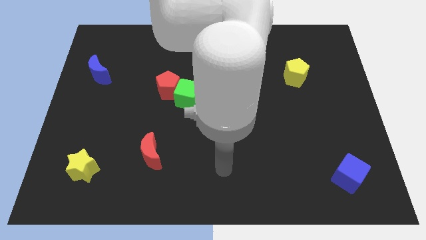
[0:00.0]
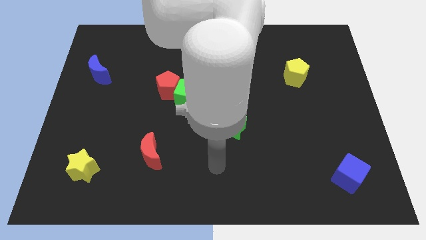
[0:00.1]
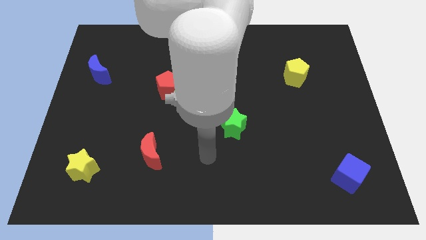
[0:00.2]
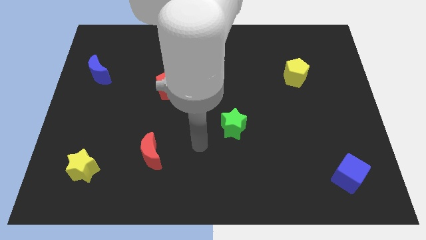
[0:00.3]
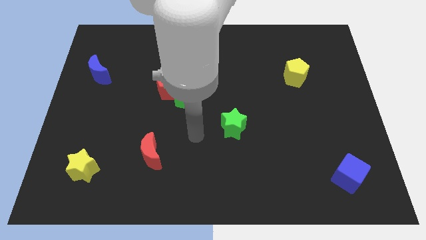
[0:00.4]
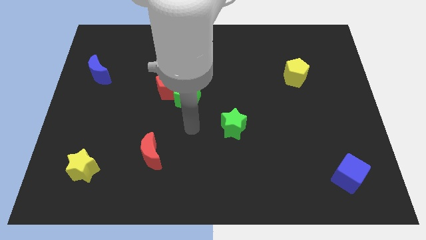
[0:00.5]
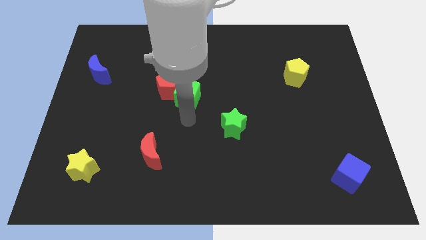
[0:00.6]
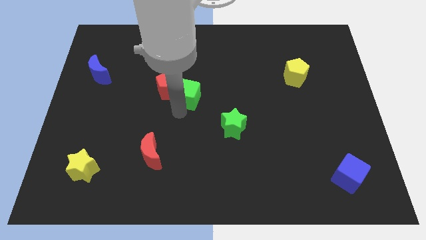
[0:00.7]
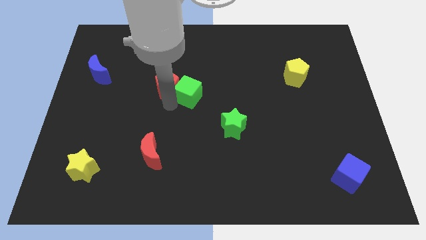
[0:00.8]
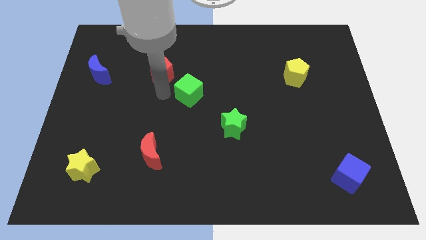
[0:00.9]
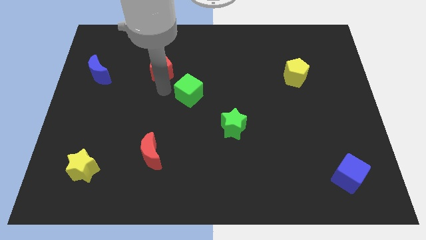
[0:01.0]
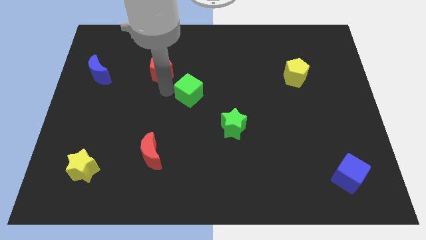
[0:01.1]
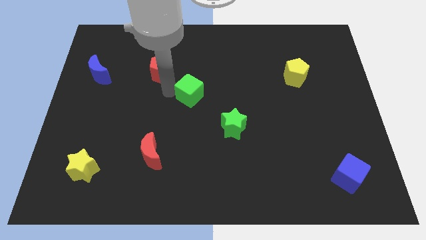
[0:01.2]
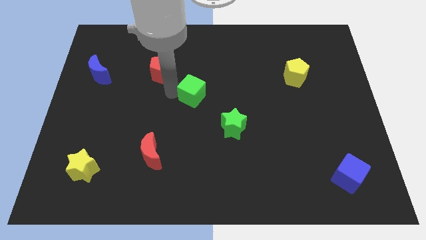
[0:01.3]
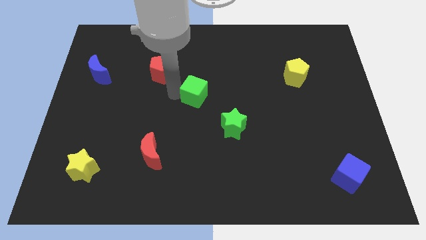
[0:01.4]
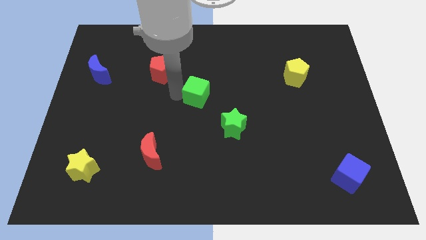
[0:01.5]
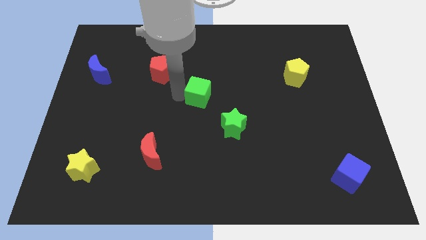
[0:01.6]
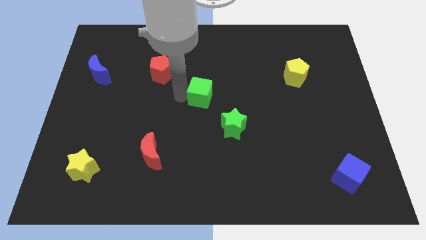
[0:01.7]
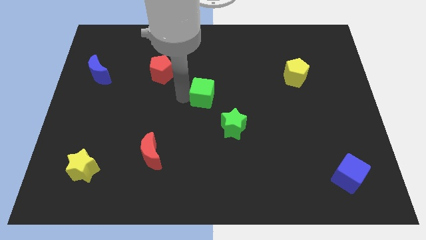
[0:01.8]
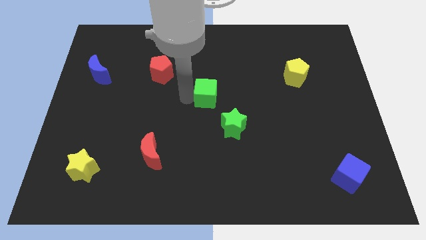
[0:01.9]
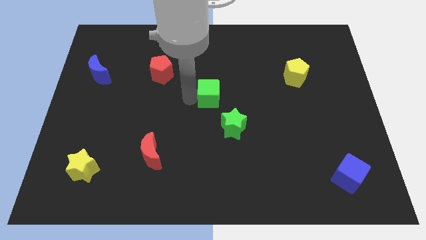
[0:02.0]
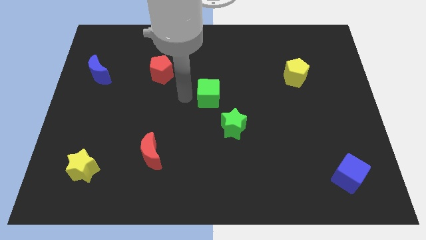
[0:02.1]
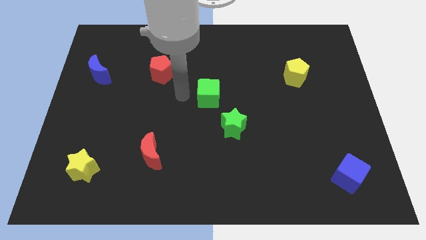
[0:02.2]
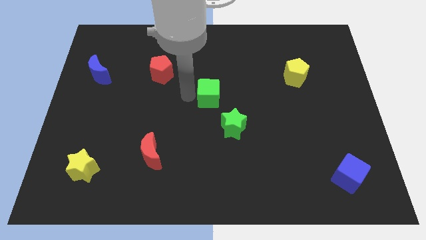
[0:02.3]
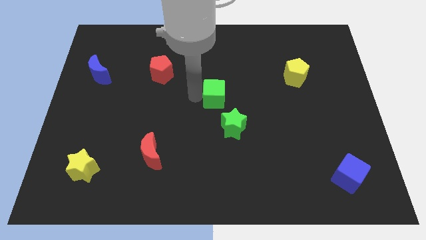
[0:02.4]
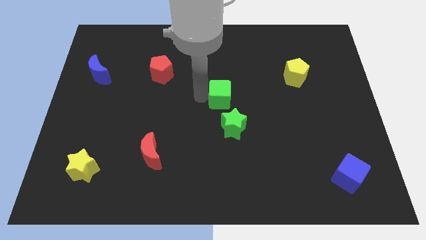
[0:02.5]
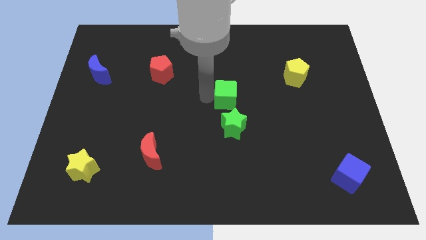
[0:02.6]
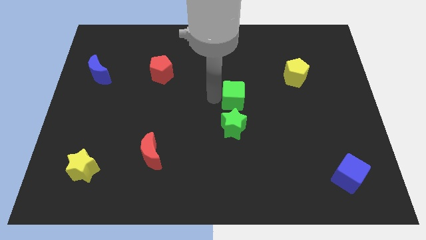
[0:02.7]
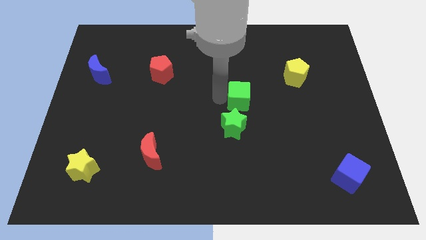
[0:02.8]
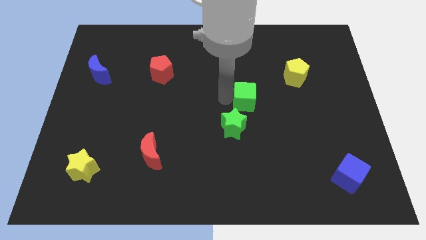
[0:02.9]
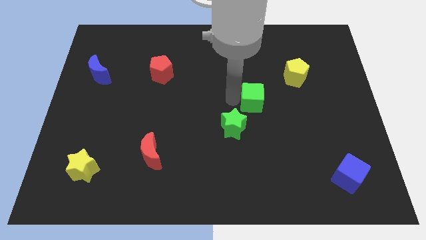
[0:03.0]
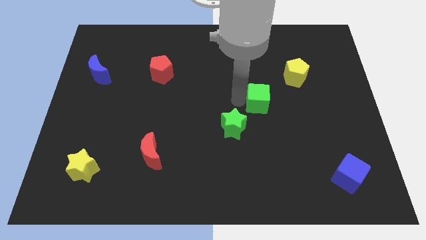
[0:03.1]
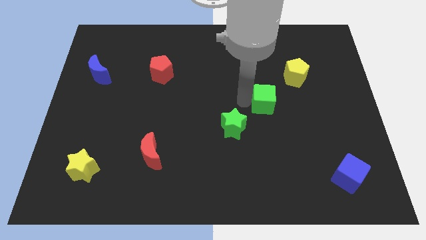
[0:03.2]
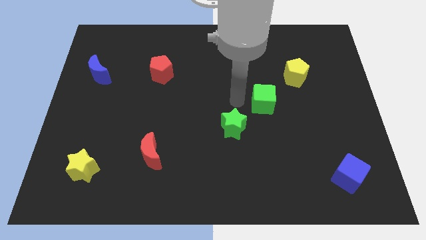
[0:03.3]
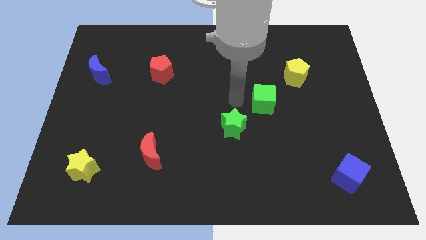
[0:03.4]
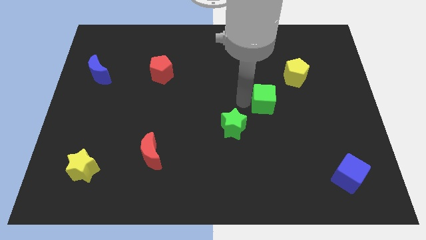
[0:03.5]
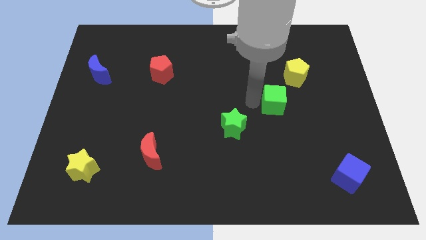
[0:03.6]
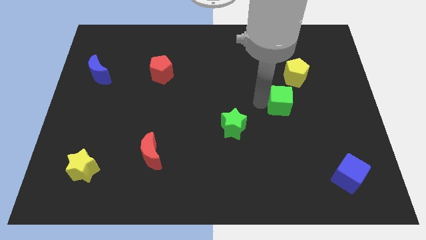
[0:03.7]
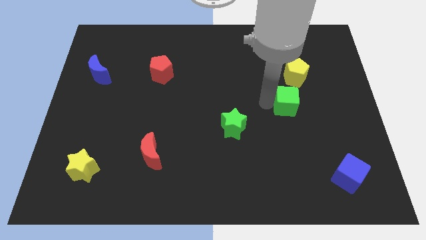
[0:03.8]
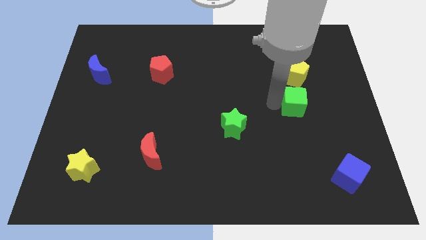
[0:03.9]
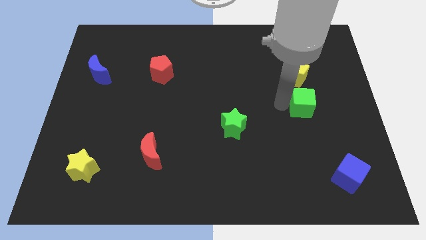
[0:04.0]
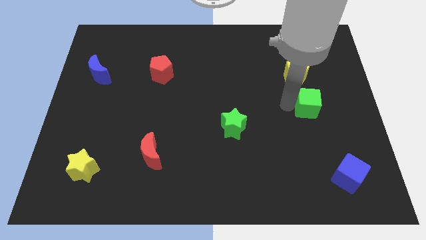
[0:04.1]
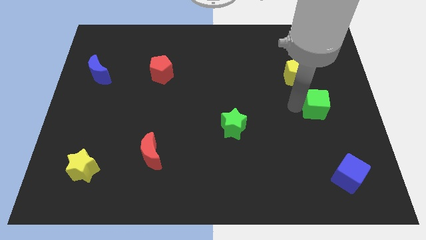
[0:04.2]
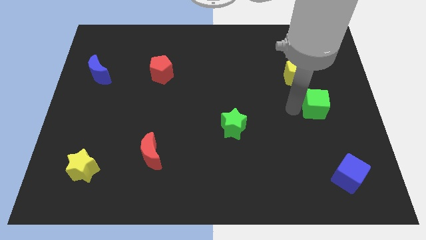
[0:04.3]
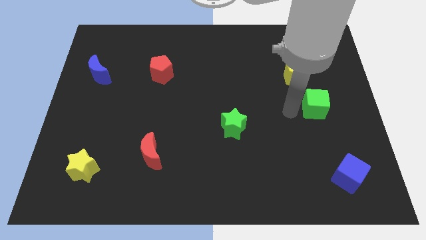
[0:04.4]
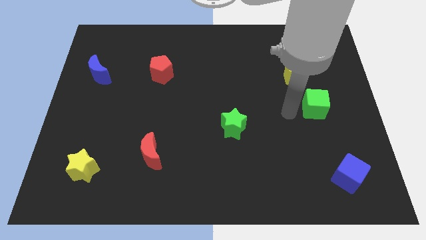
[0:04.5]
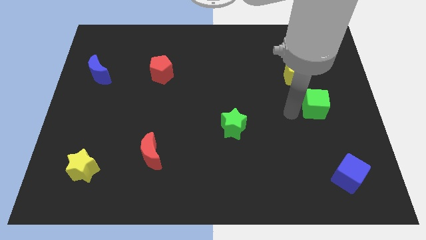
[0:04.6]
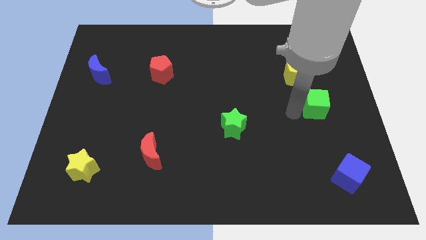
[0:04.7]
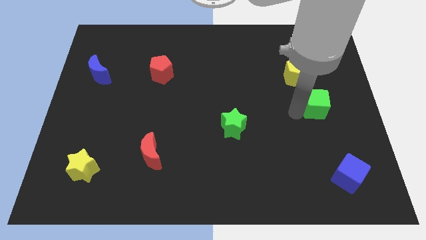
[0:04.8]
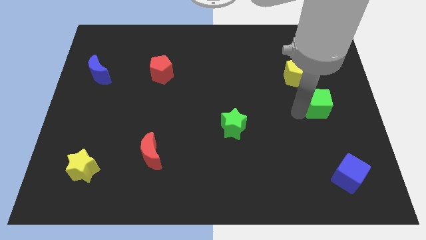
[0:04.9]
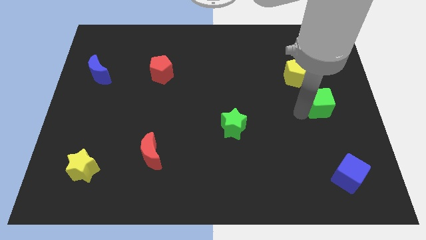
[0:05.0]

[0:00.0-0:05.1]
move the green cube to the right side of the board

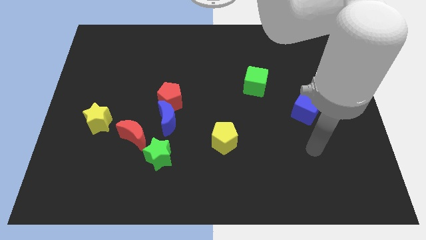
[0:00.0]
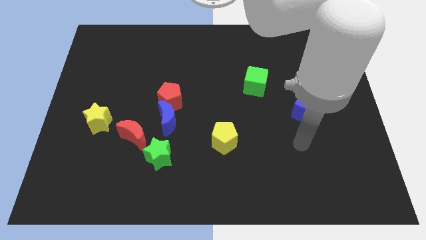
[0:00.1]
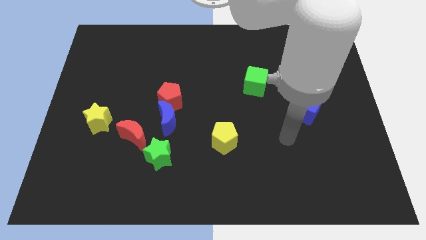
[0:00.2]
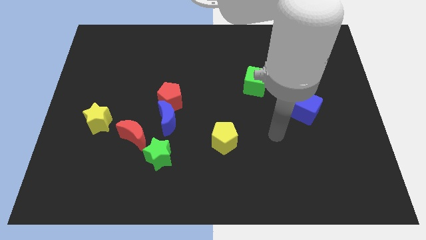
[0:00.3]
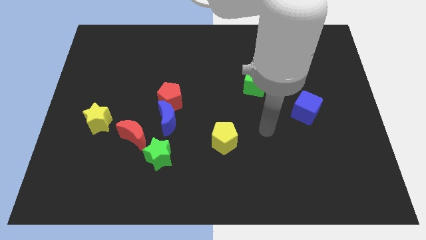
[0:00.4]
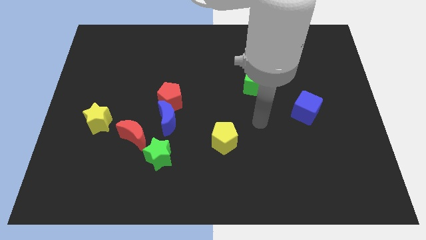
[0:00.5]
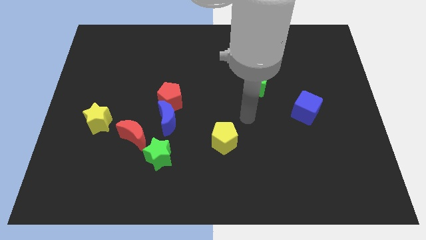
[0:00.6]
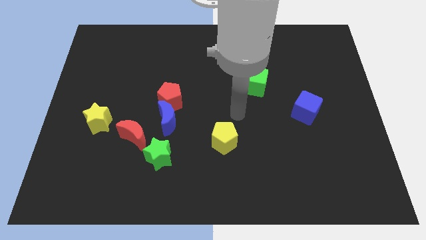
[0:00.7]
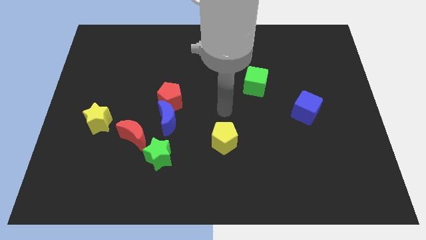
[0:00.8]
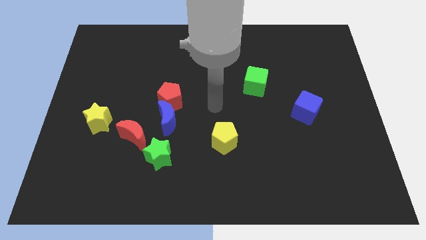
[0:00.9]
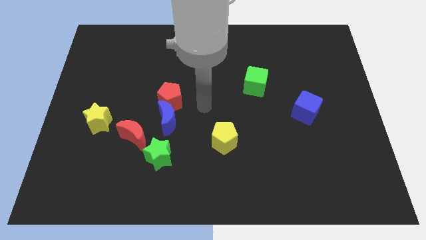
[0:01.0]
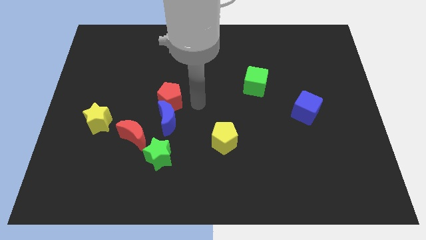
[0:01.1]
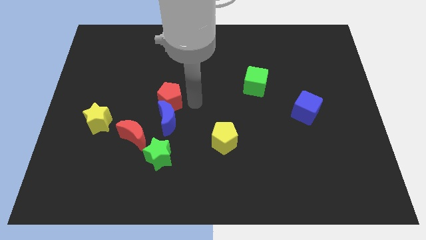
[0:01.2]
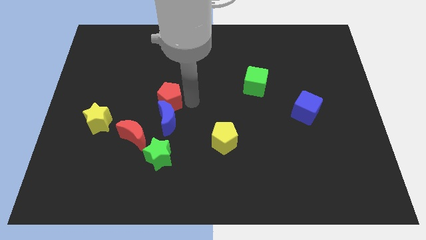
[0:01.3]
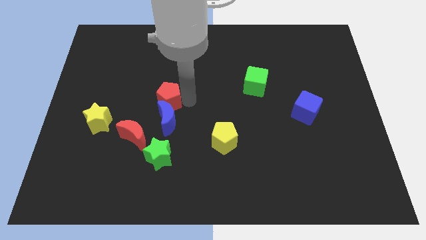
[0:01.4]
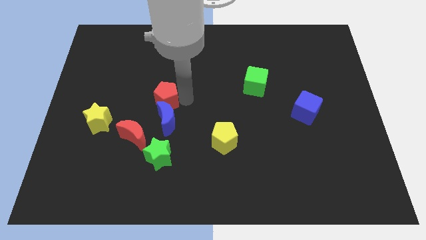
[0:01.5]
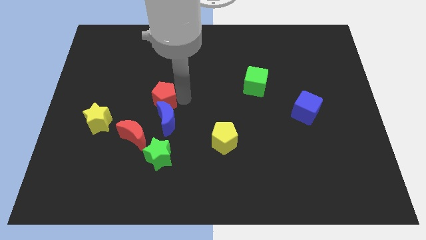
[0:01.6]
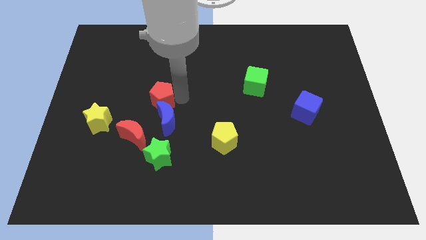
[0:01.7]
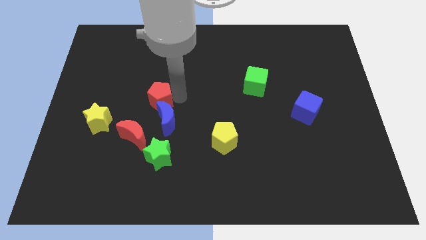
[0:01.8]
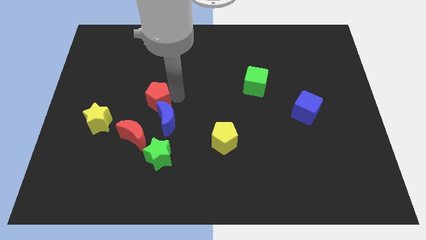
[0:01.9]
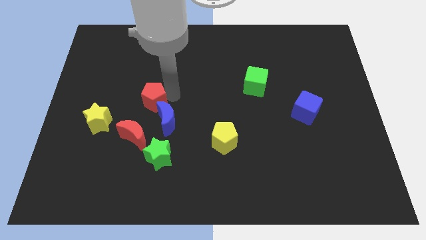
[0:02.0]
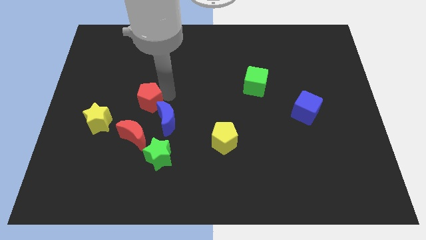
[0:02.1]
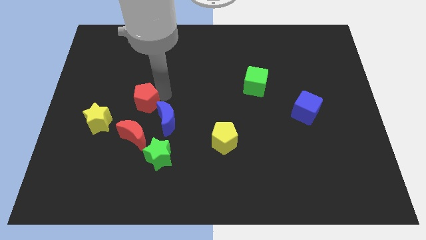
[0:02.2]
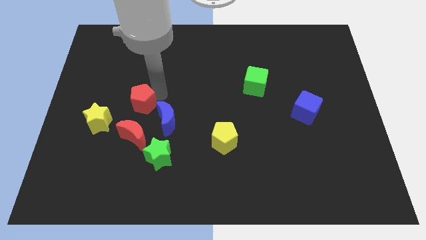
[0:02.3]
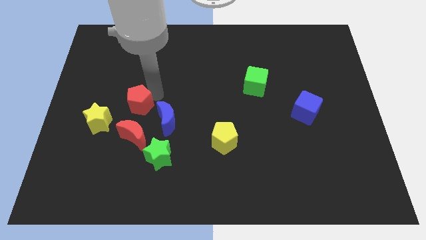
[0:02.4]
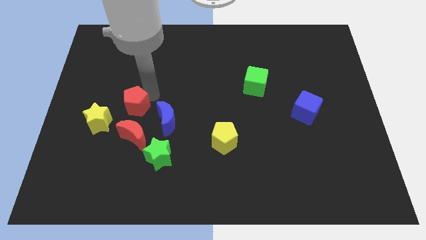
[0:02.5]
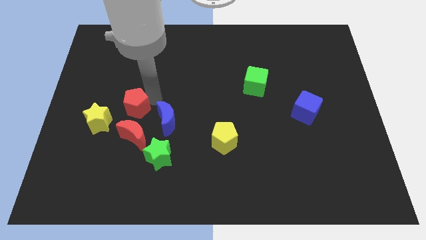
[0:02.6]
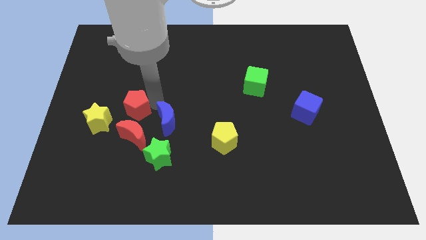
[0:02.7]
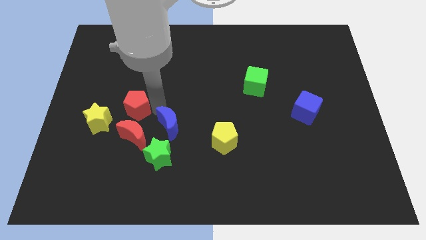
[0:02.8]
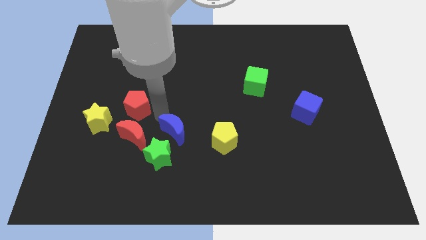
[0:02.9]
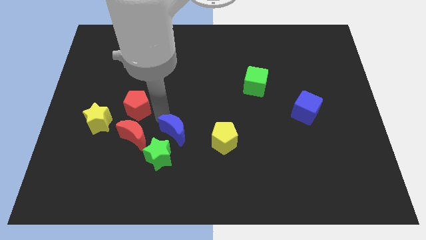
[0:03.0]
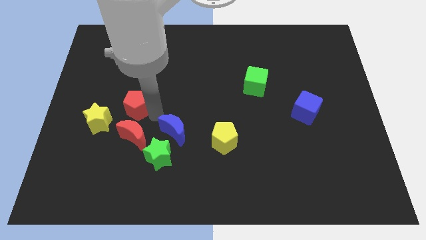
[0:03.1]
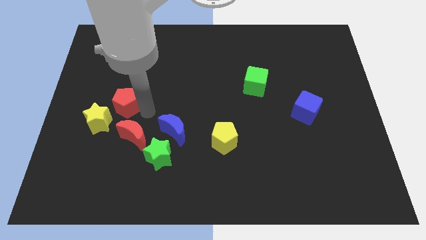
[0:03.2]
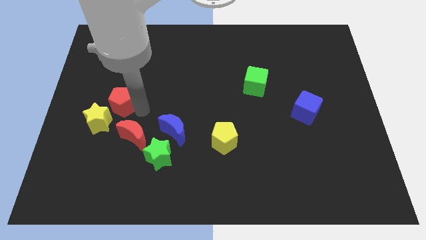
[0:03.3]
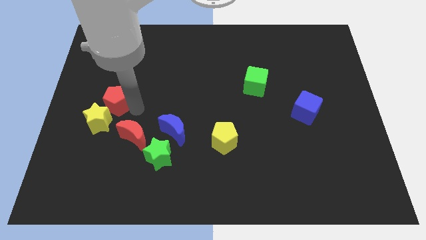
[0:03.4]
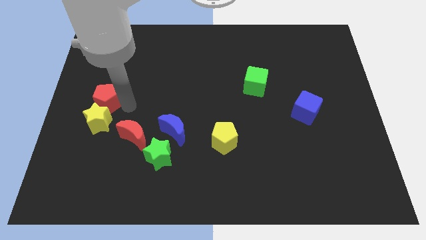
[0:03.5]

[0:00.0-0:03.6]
move the red pentagon to the center left
